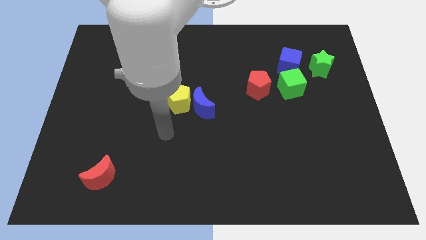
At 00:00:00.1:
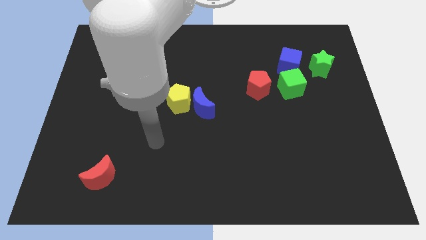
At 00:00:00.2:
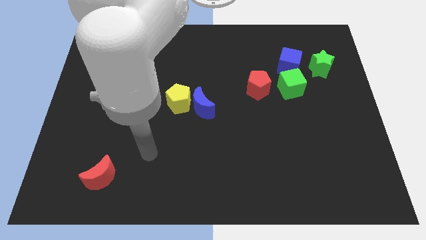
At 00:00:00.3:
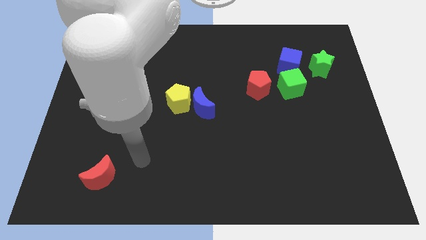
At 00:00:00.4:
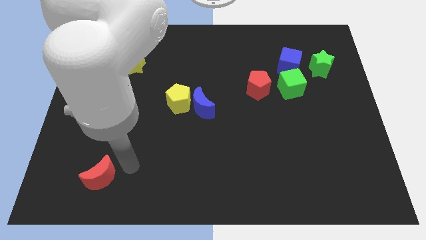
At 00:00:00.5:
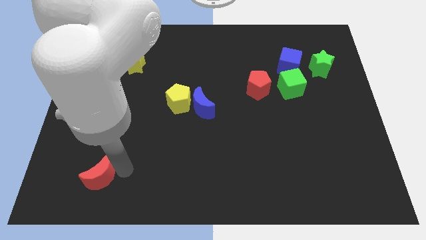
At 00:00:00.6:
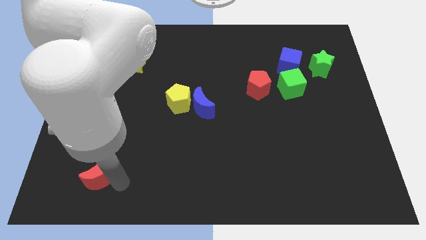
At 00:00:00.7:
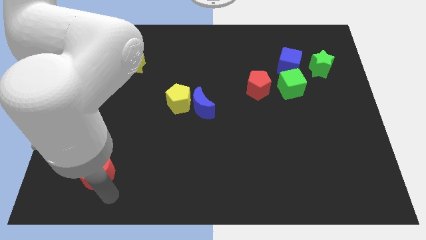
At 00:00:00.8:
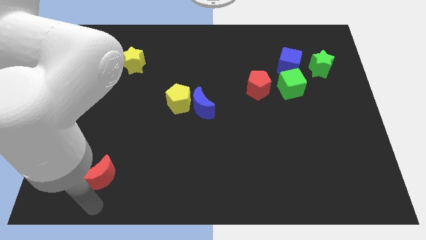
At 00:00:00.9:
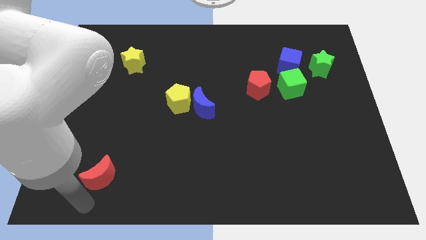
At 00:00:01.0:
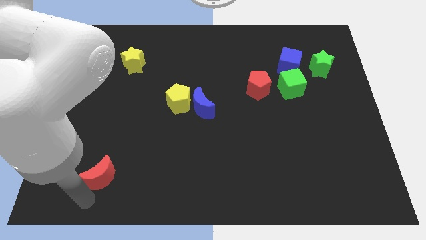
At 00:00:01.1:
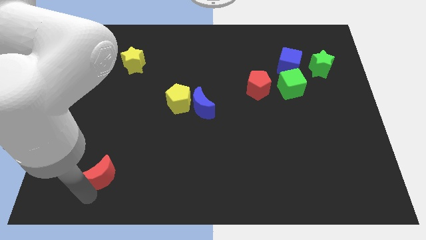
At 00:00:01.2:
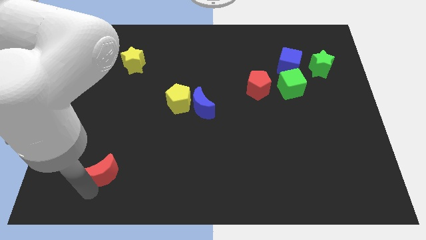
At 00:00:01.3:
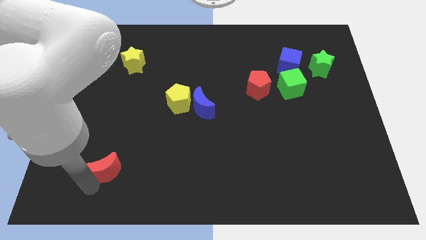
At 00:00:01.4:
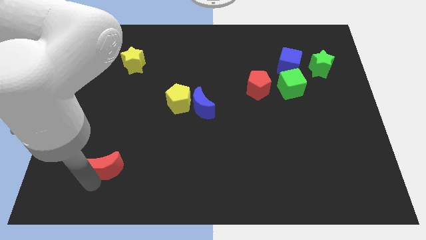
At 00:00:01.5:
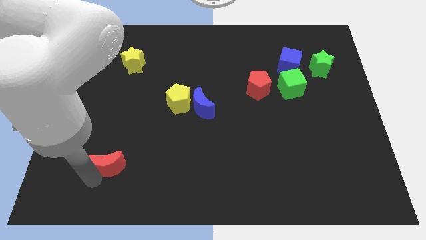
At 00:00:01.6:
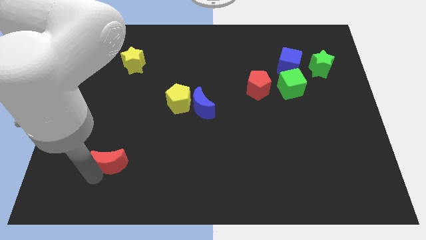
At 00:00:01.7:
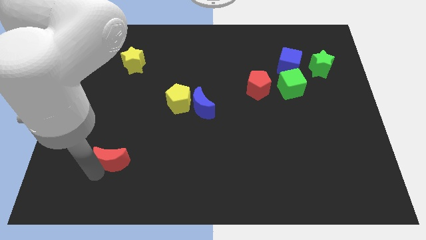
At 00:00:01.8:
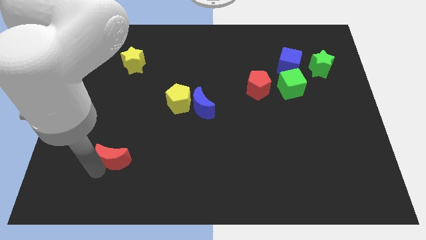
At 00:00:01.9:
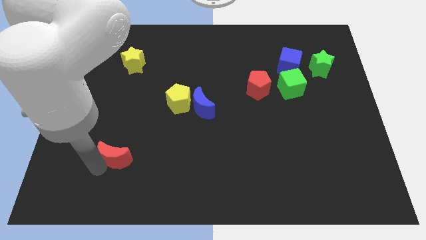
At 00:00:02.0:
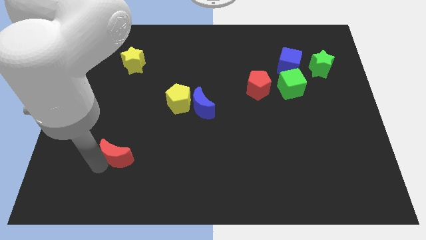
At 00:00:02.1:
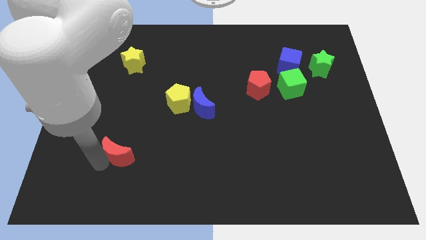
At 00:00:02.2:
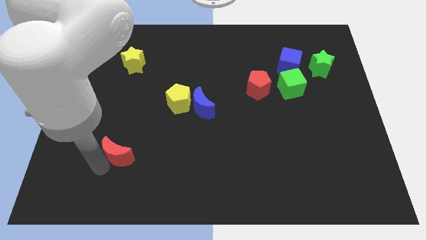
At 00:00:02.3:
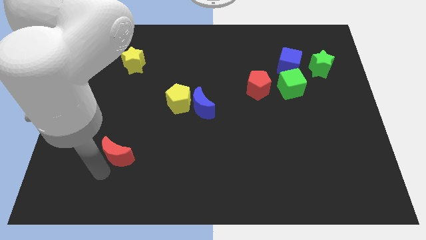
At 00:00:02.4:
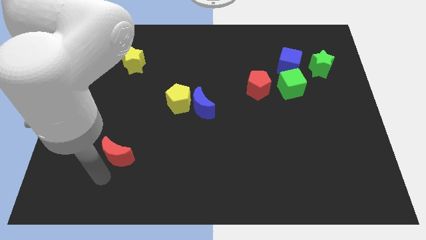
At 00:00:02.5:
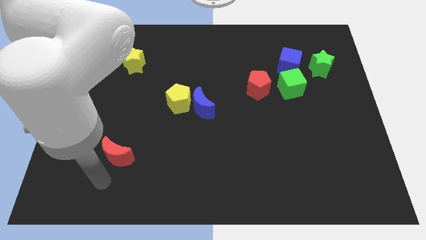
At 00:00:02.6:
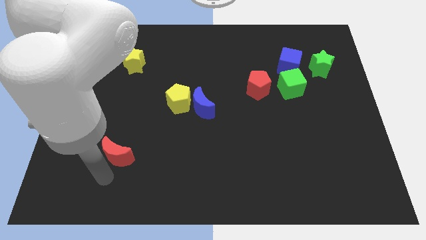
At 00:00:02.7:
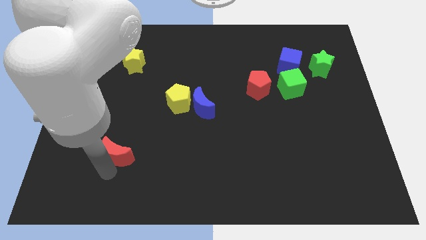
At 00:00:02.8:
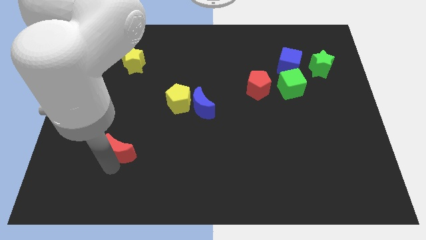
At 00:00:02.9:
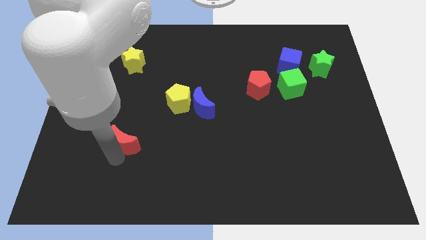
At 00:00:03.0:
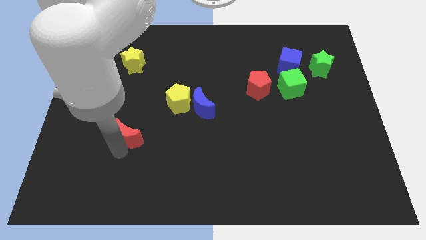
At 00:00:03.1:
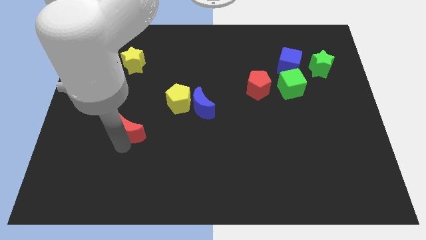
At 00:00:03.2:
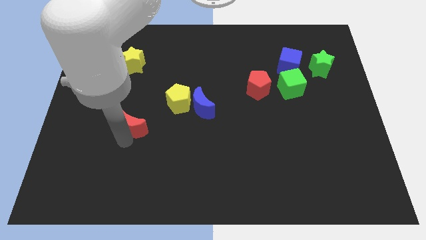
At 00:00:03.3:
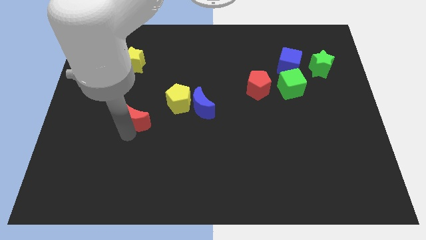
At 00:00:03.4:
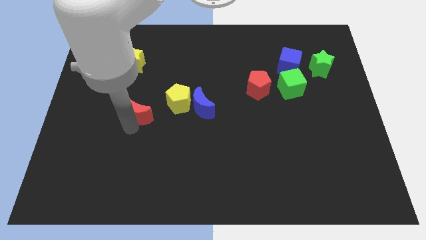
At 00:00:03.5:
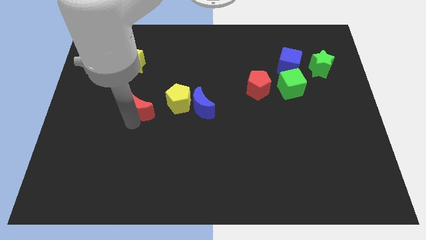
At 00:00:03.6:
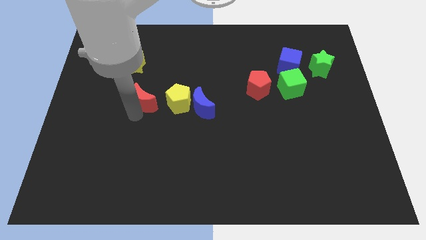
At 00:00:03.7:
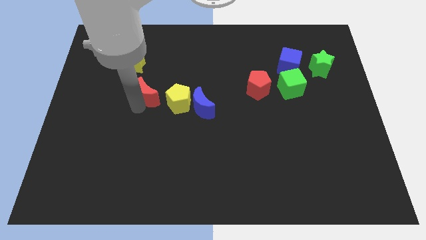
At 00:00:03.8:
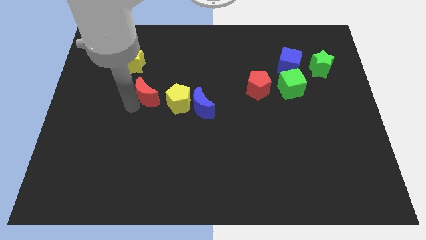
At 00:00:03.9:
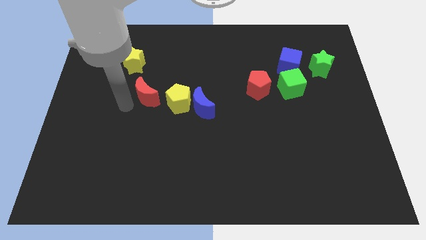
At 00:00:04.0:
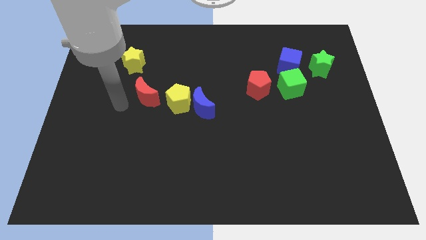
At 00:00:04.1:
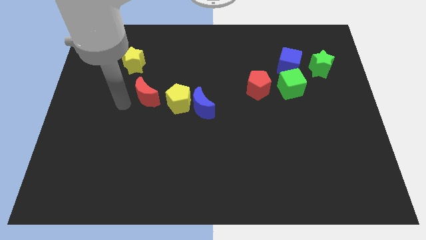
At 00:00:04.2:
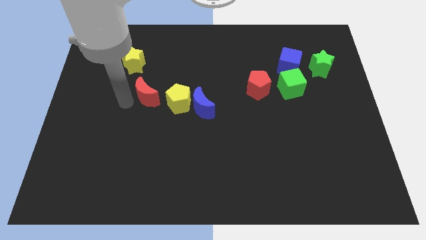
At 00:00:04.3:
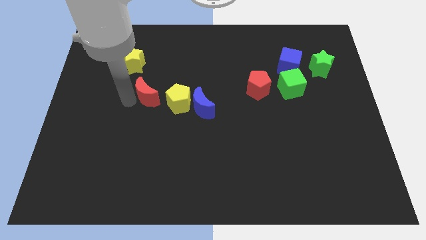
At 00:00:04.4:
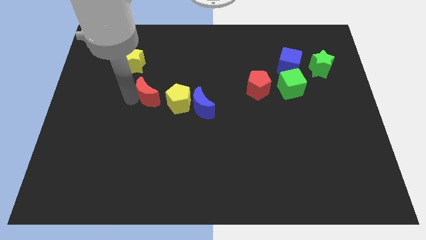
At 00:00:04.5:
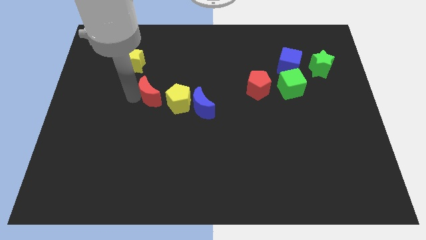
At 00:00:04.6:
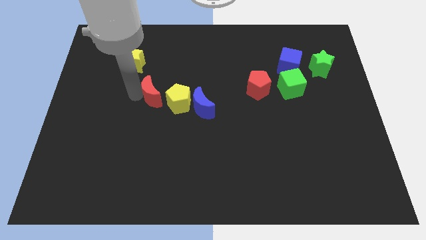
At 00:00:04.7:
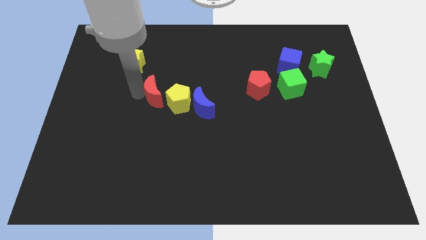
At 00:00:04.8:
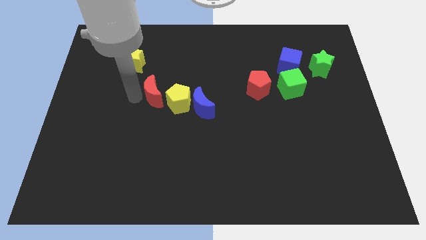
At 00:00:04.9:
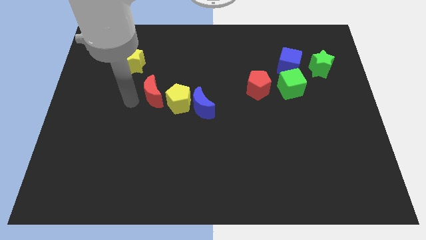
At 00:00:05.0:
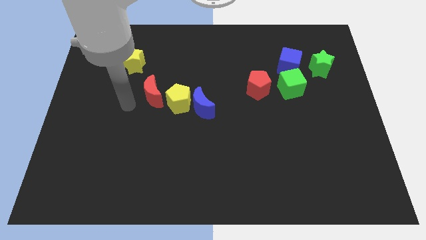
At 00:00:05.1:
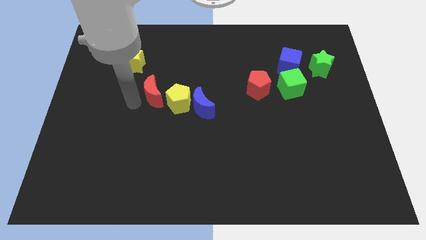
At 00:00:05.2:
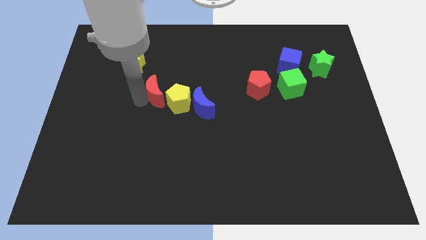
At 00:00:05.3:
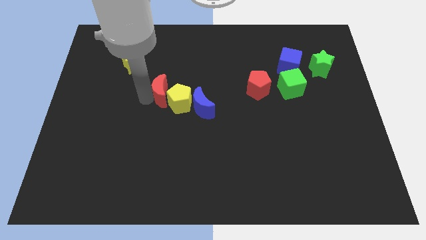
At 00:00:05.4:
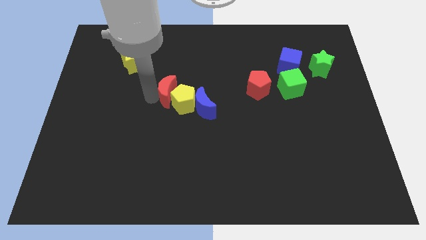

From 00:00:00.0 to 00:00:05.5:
move the red moon up and right diagonally

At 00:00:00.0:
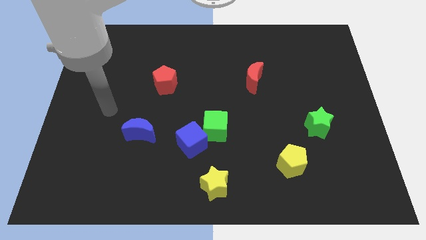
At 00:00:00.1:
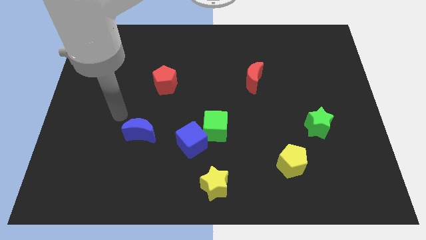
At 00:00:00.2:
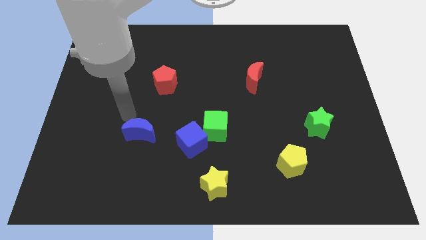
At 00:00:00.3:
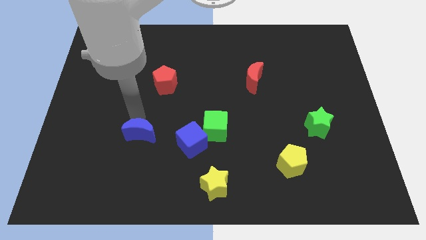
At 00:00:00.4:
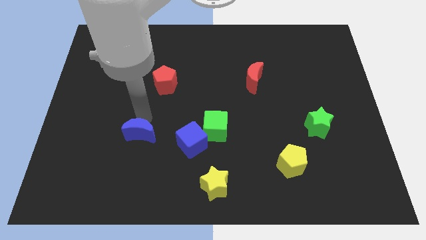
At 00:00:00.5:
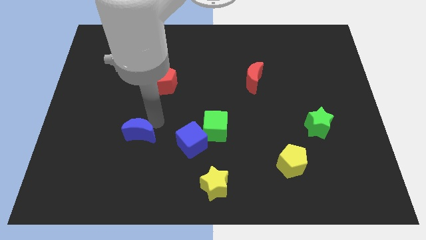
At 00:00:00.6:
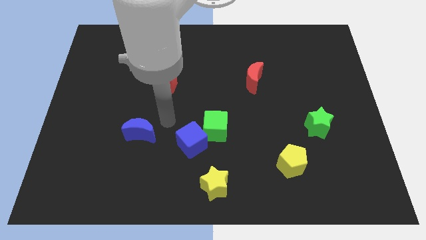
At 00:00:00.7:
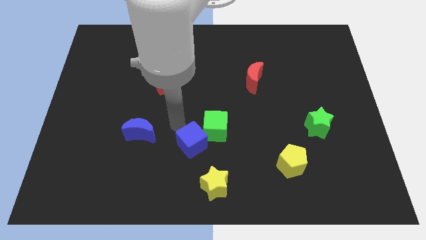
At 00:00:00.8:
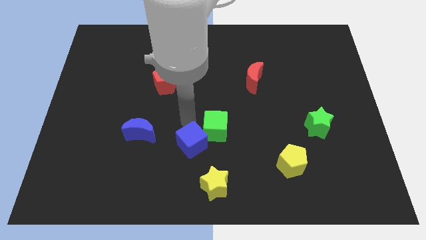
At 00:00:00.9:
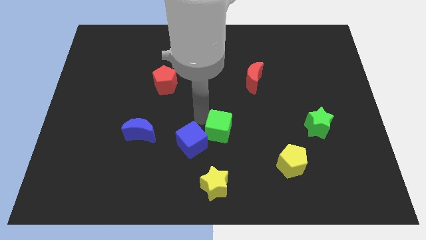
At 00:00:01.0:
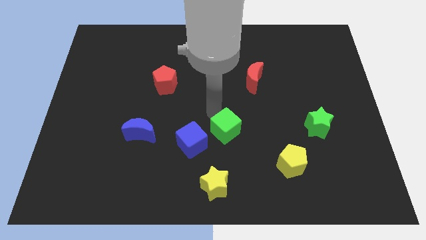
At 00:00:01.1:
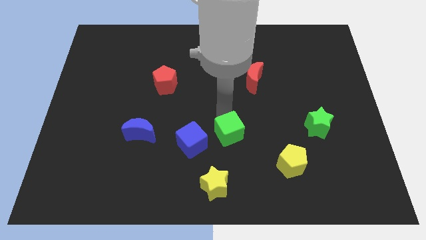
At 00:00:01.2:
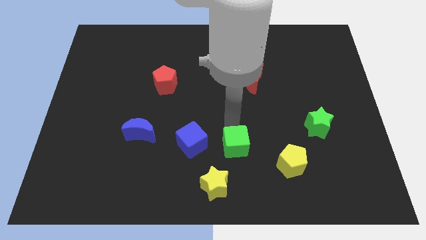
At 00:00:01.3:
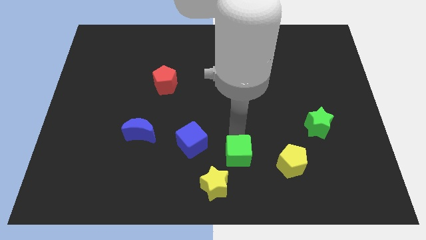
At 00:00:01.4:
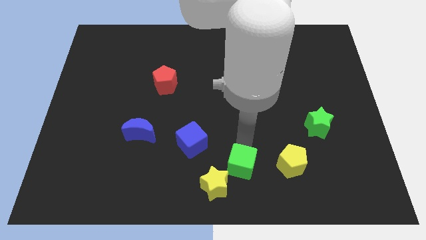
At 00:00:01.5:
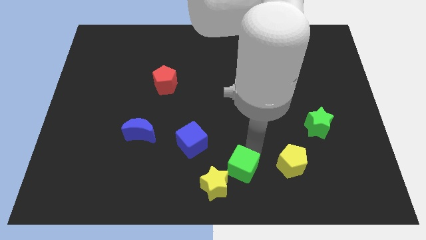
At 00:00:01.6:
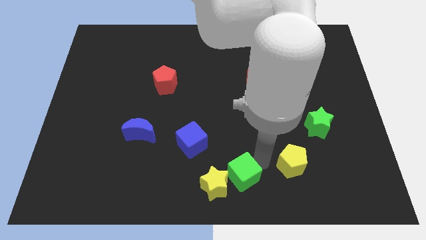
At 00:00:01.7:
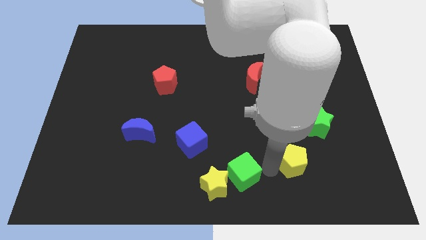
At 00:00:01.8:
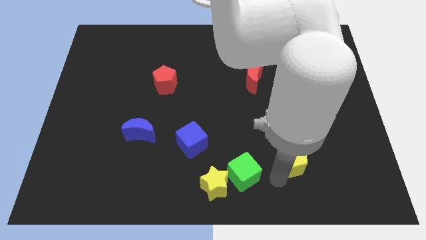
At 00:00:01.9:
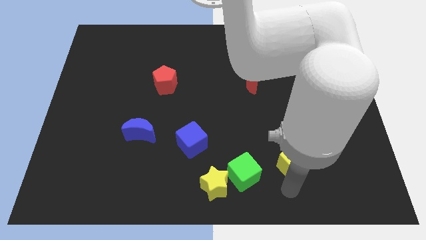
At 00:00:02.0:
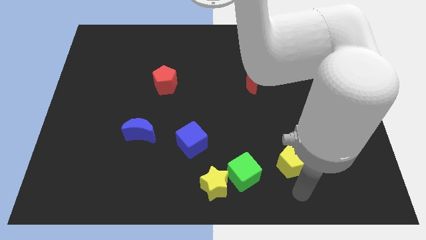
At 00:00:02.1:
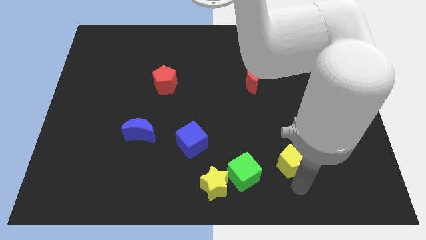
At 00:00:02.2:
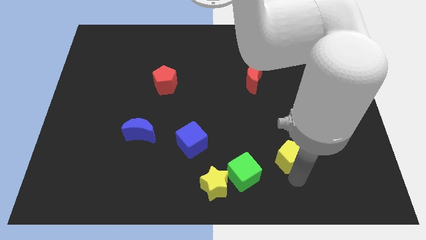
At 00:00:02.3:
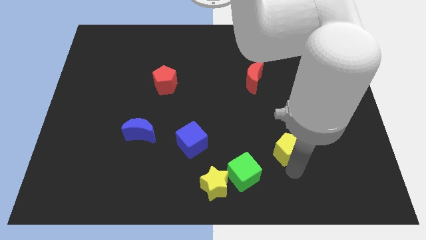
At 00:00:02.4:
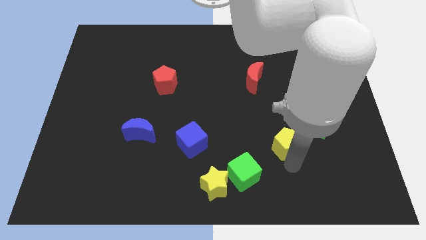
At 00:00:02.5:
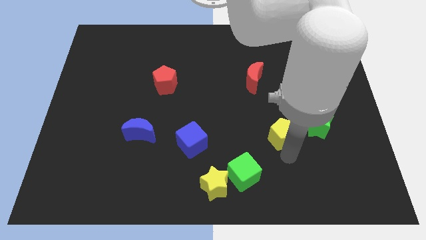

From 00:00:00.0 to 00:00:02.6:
push the yellow pentagon a little bit up
